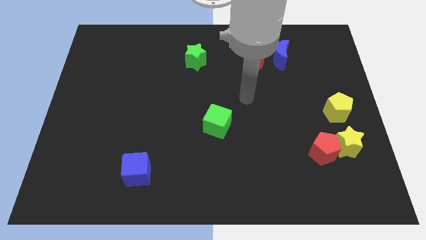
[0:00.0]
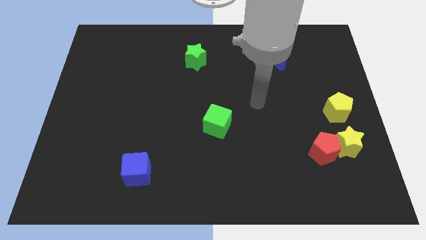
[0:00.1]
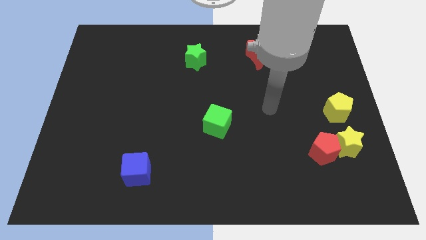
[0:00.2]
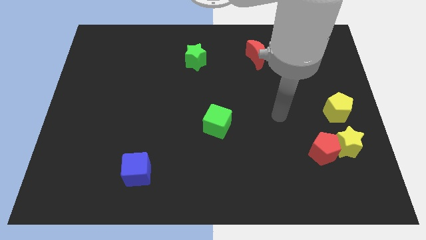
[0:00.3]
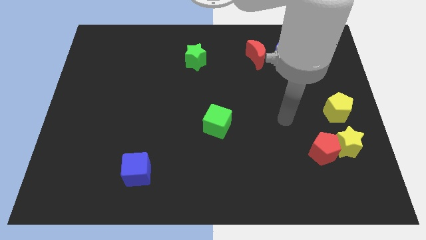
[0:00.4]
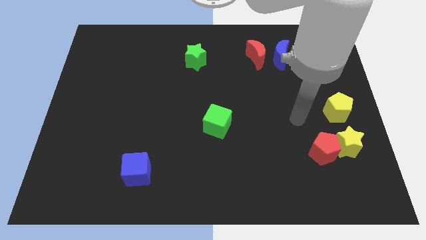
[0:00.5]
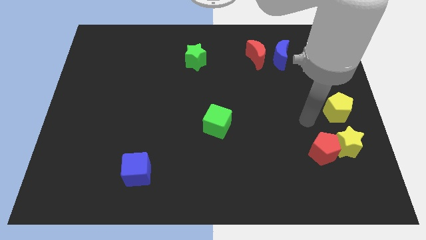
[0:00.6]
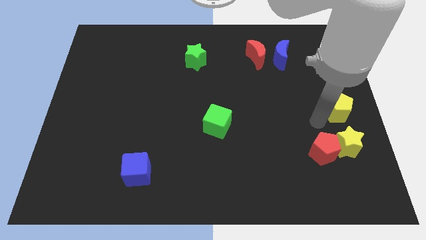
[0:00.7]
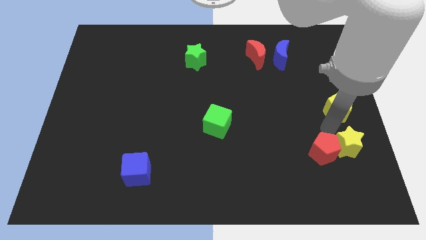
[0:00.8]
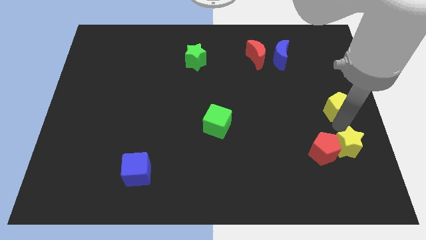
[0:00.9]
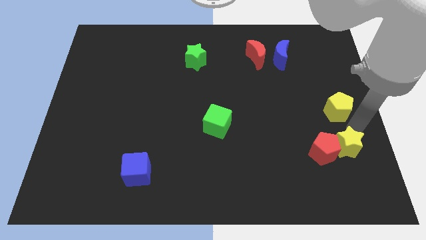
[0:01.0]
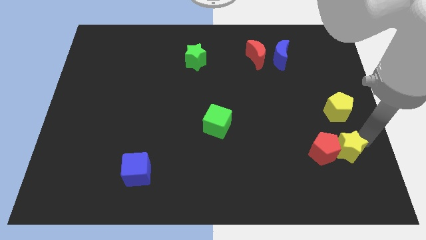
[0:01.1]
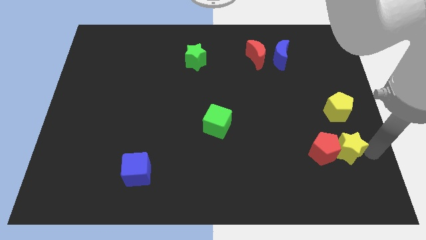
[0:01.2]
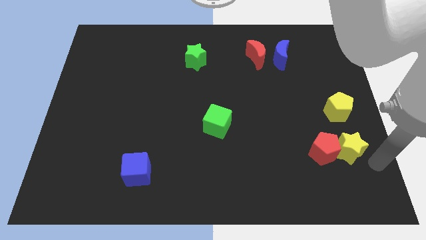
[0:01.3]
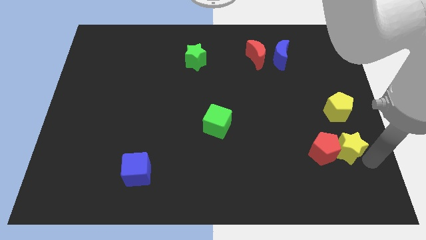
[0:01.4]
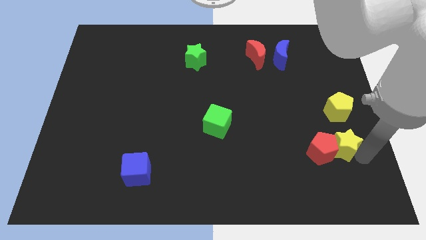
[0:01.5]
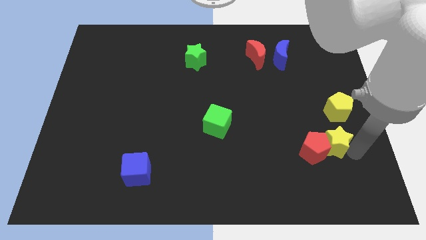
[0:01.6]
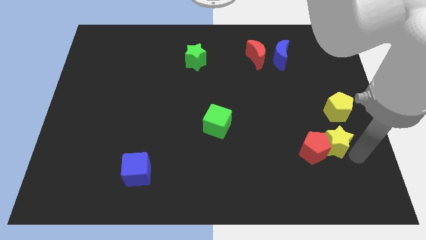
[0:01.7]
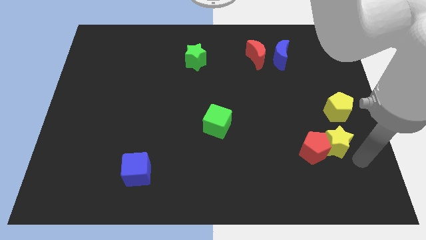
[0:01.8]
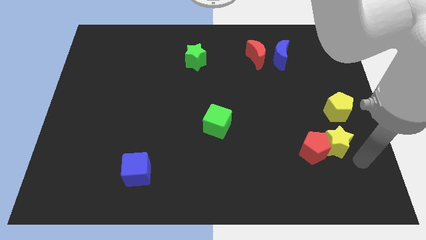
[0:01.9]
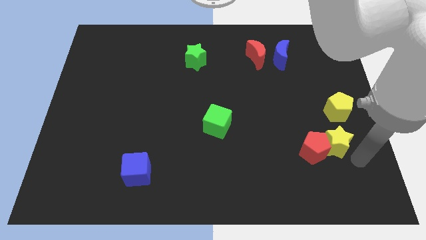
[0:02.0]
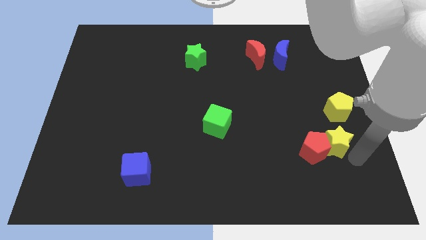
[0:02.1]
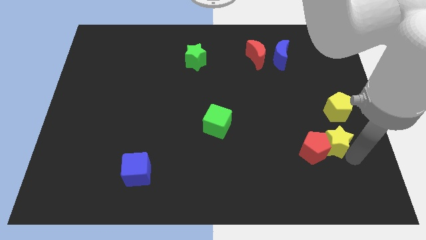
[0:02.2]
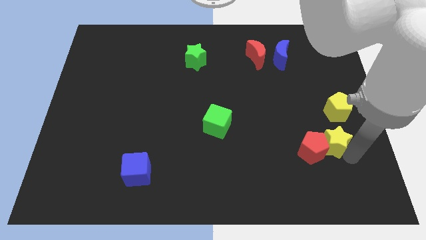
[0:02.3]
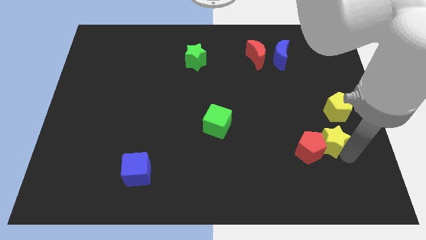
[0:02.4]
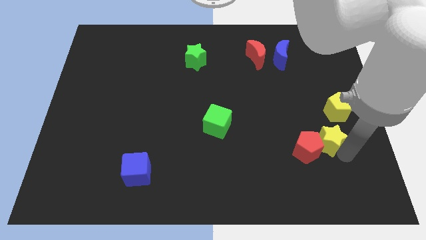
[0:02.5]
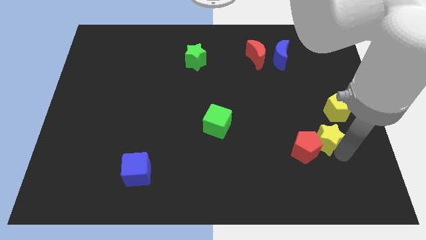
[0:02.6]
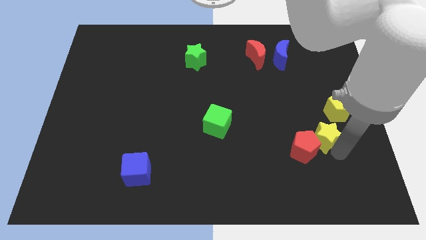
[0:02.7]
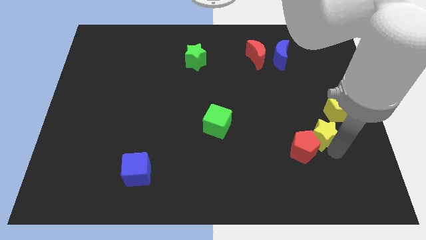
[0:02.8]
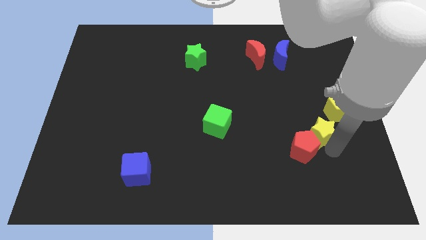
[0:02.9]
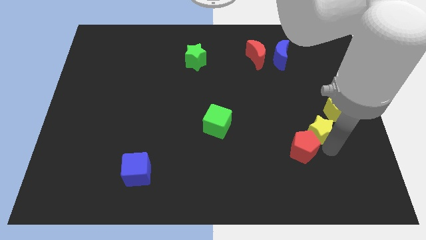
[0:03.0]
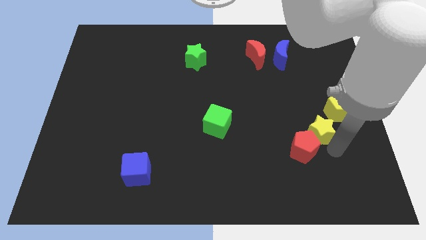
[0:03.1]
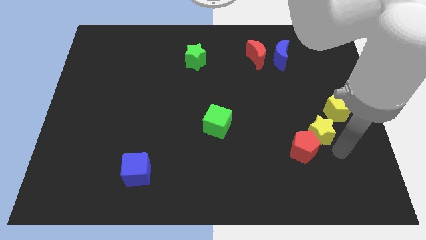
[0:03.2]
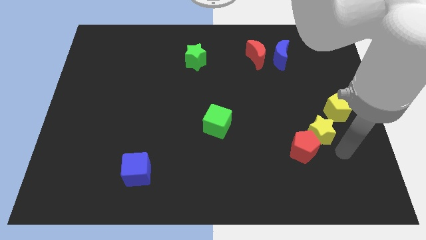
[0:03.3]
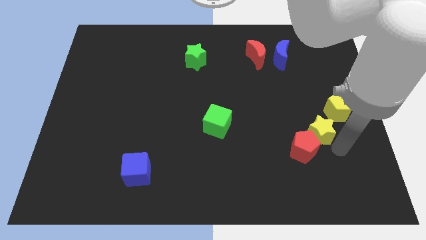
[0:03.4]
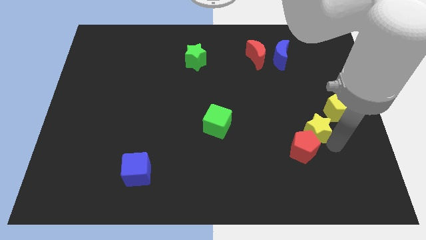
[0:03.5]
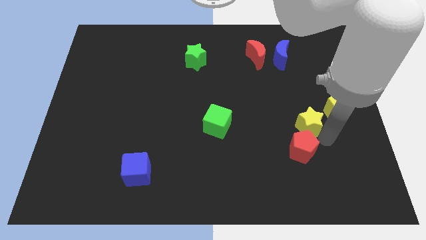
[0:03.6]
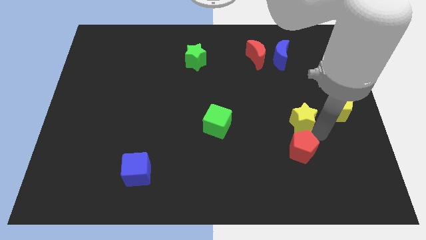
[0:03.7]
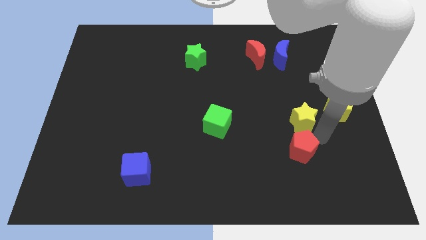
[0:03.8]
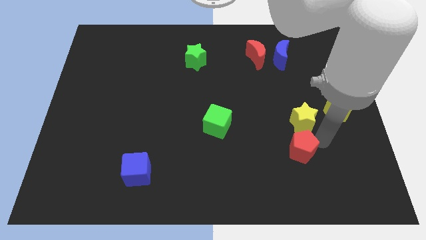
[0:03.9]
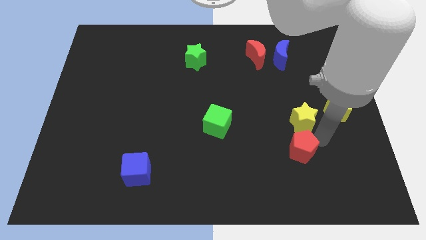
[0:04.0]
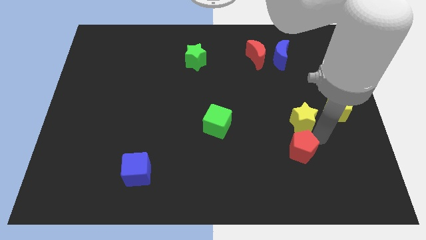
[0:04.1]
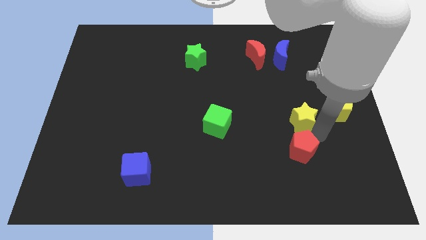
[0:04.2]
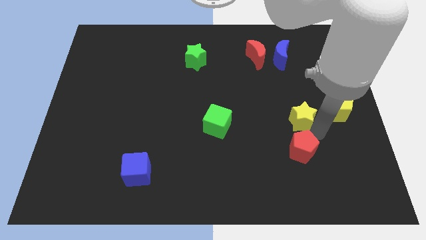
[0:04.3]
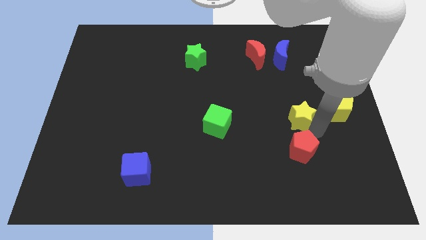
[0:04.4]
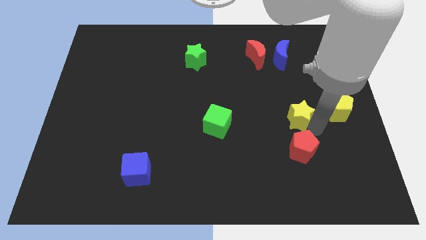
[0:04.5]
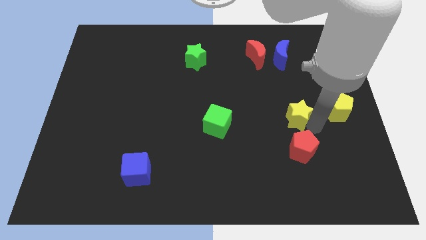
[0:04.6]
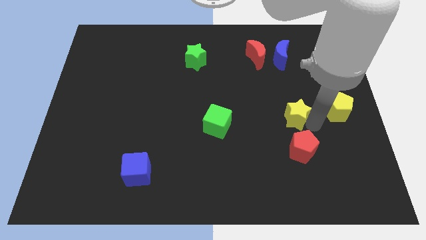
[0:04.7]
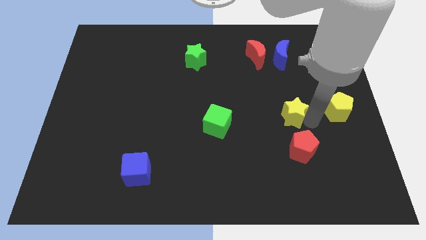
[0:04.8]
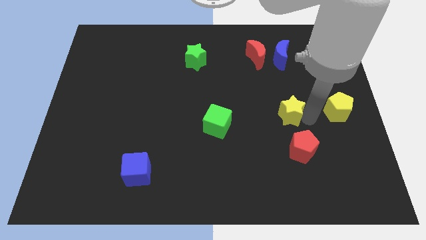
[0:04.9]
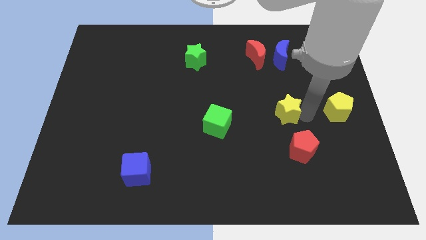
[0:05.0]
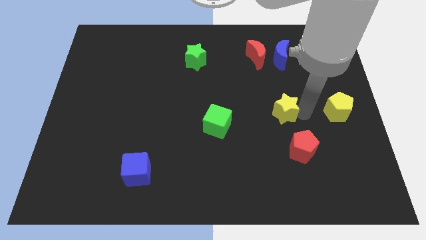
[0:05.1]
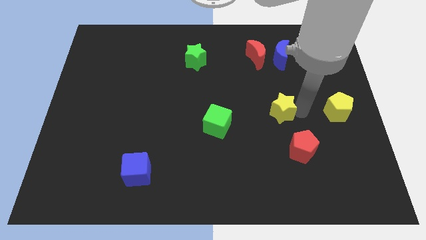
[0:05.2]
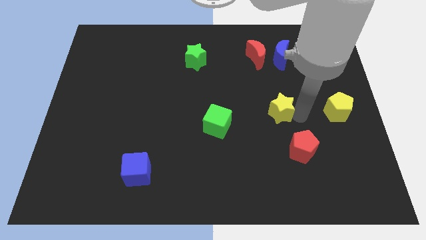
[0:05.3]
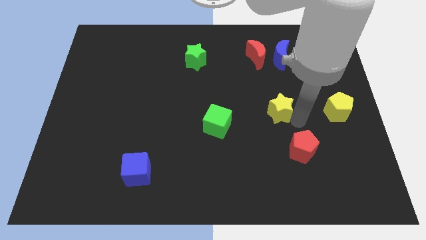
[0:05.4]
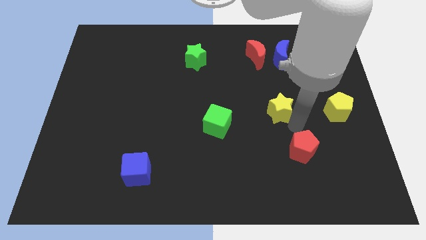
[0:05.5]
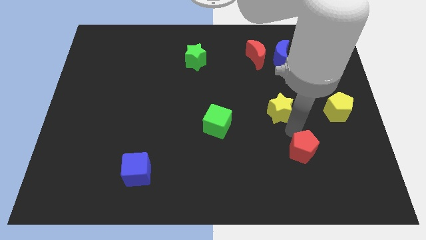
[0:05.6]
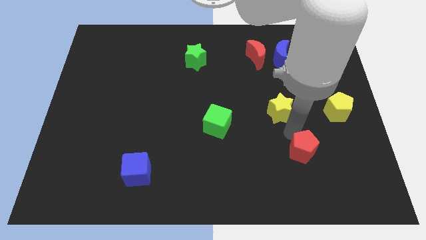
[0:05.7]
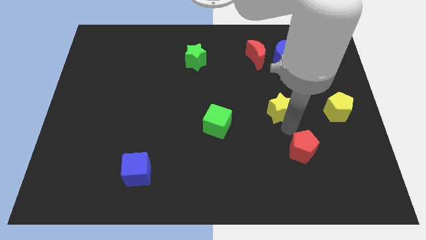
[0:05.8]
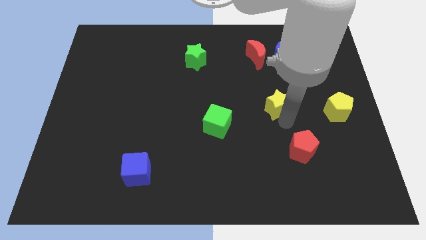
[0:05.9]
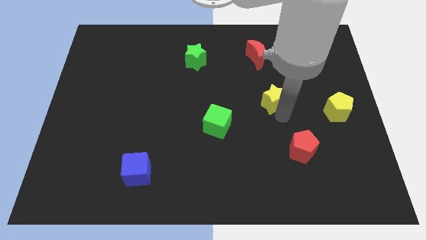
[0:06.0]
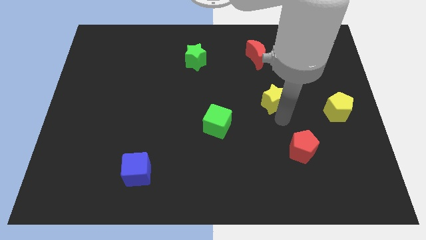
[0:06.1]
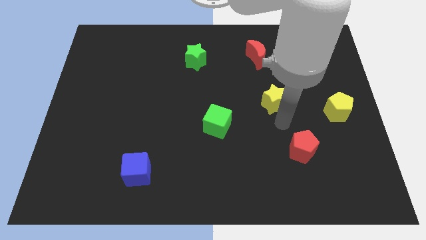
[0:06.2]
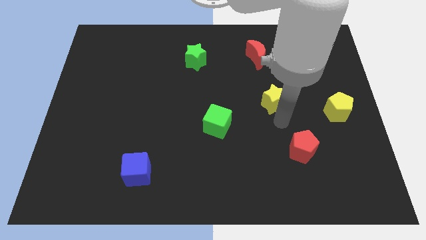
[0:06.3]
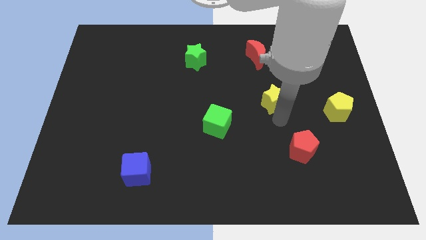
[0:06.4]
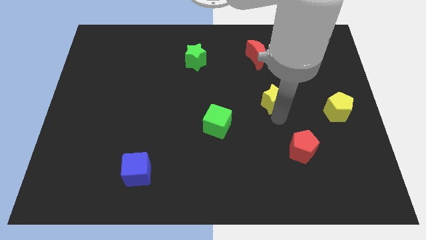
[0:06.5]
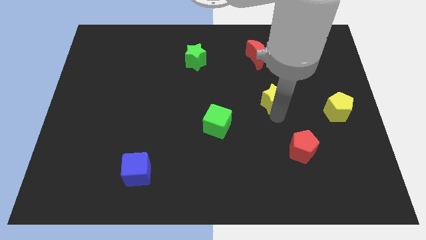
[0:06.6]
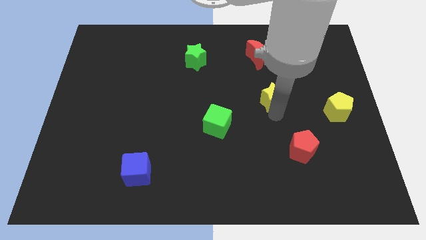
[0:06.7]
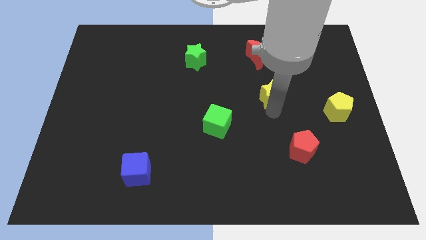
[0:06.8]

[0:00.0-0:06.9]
push the yellow star up and to the left diagonally

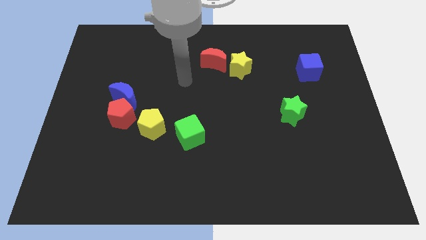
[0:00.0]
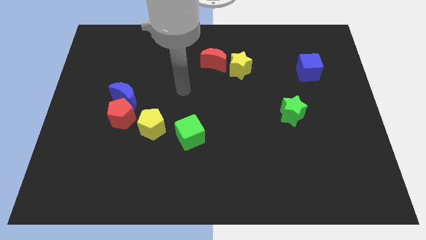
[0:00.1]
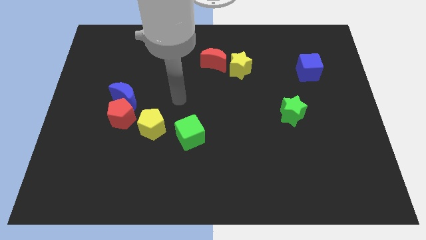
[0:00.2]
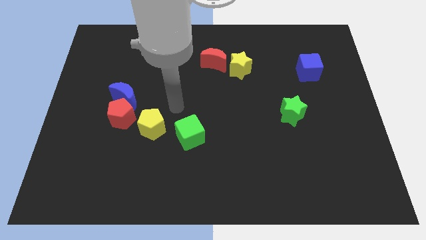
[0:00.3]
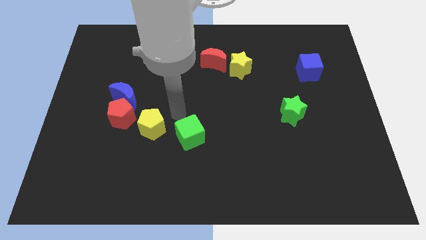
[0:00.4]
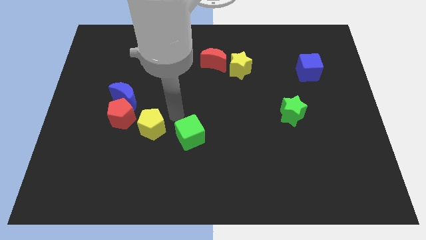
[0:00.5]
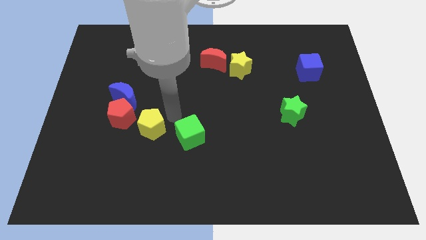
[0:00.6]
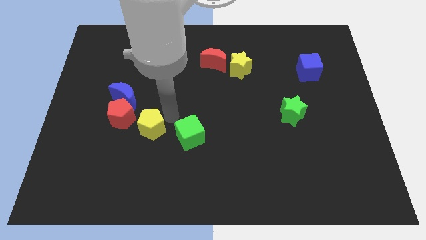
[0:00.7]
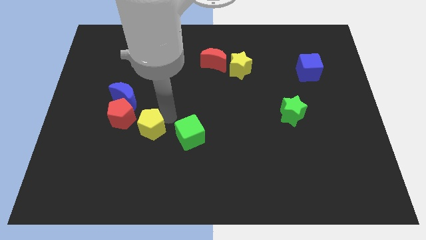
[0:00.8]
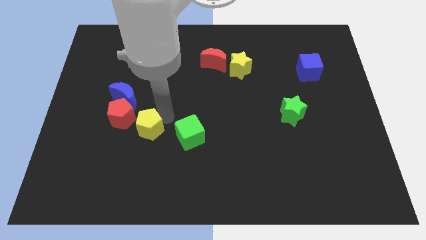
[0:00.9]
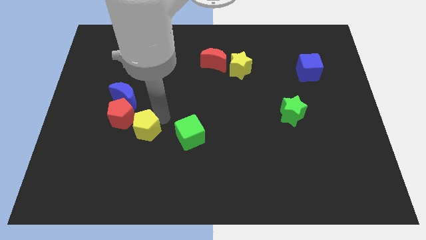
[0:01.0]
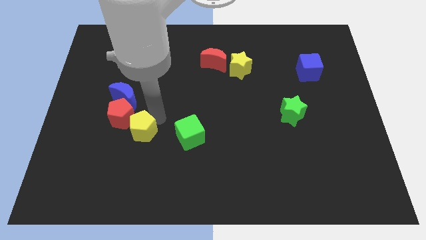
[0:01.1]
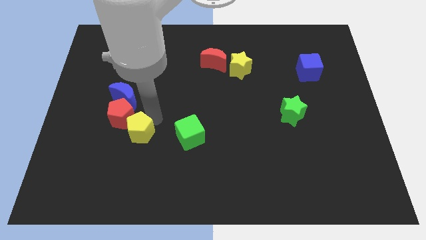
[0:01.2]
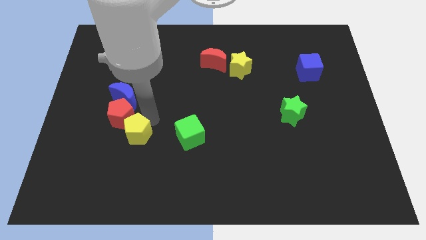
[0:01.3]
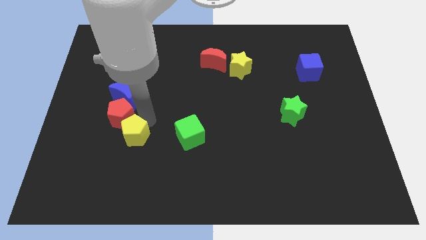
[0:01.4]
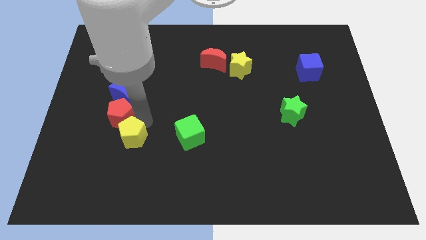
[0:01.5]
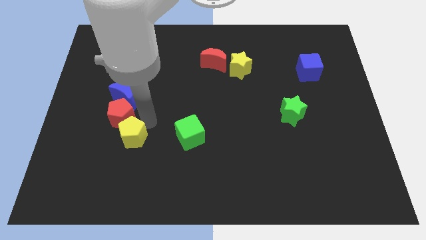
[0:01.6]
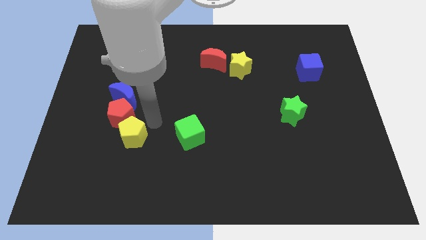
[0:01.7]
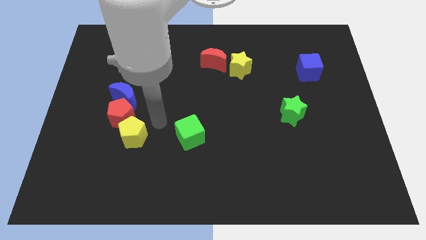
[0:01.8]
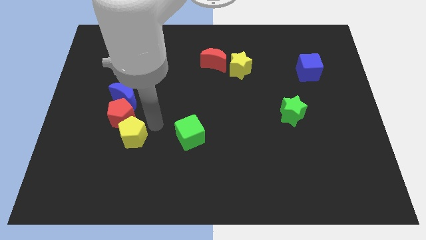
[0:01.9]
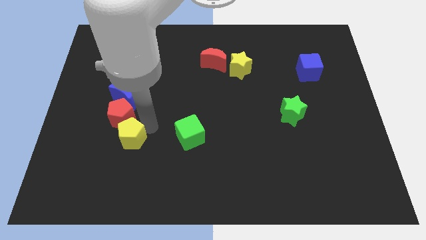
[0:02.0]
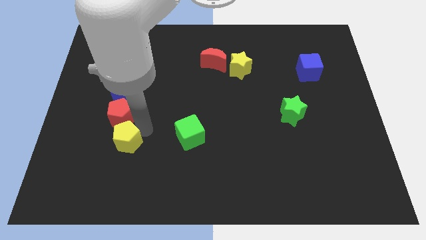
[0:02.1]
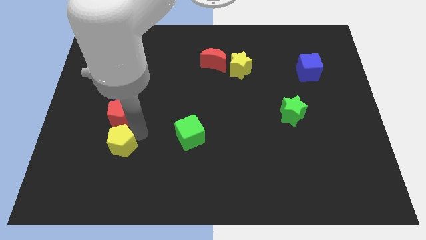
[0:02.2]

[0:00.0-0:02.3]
push the yellow pentagon downwards and to the left diagonally slightly
